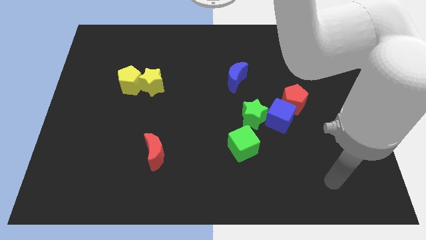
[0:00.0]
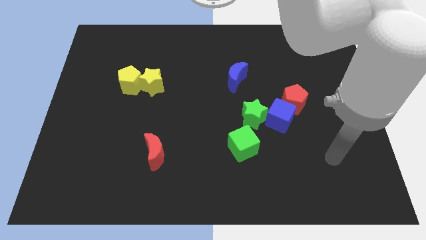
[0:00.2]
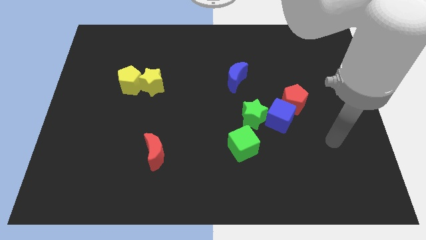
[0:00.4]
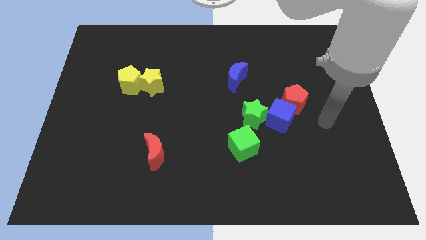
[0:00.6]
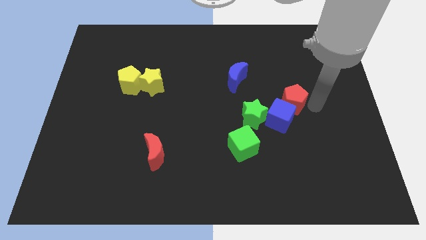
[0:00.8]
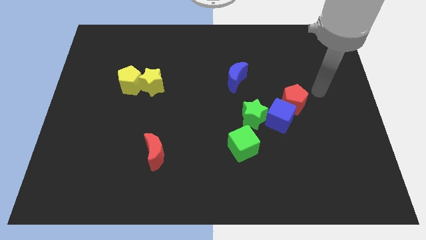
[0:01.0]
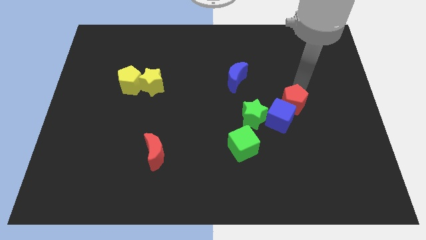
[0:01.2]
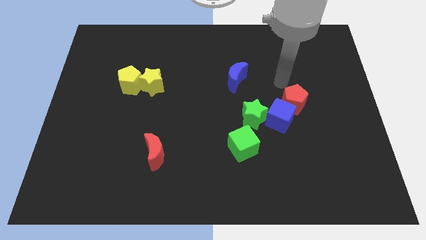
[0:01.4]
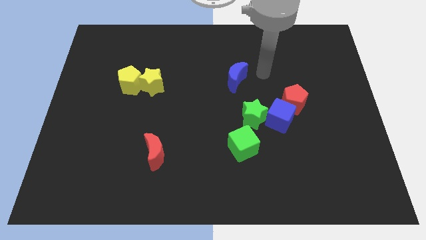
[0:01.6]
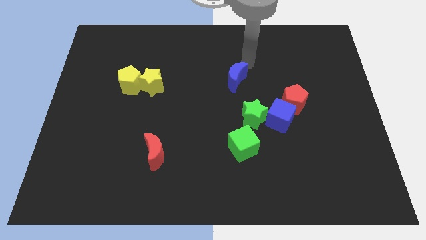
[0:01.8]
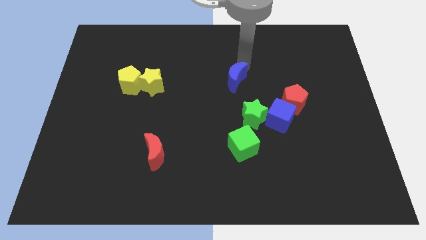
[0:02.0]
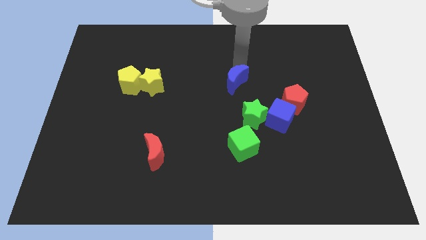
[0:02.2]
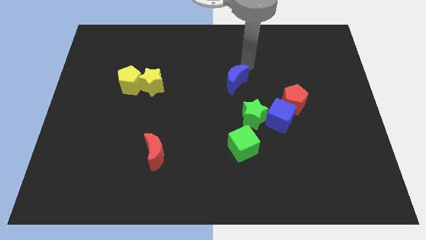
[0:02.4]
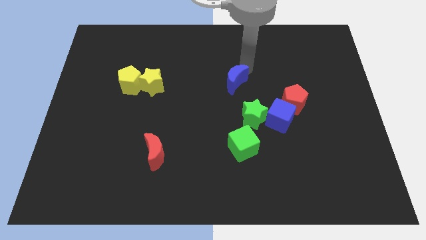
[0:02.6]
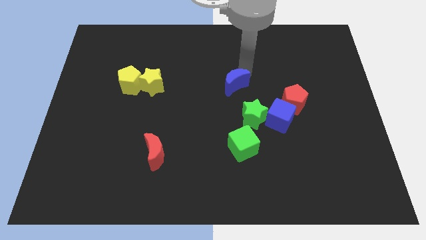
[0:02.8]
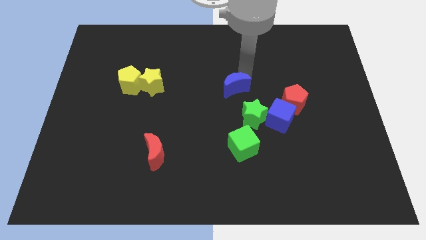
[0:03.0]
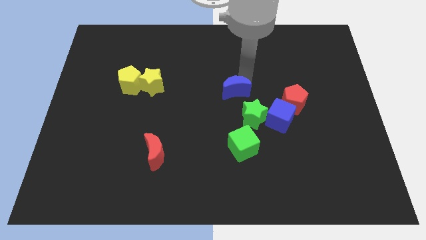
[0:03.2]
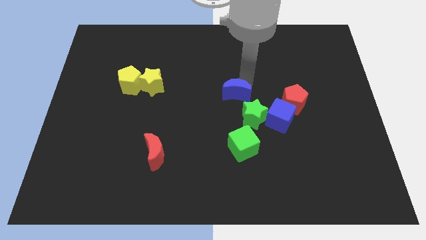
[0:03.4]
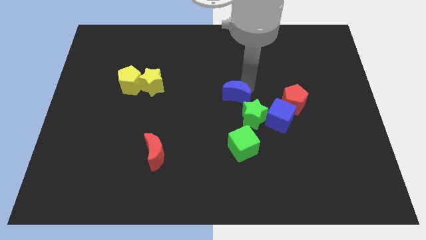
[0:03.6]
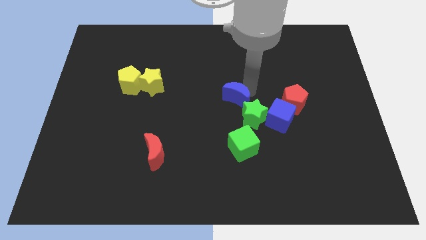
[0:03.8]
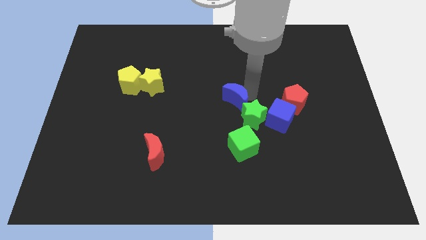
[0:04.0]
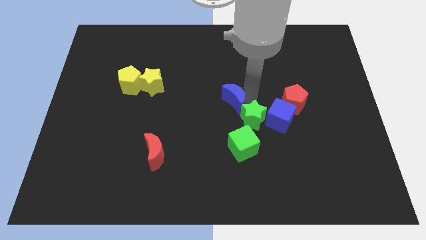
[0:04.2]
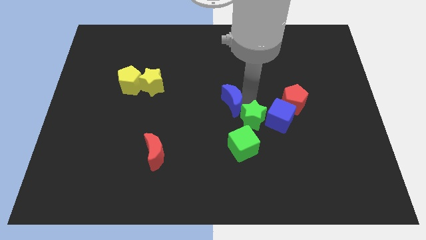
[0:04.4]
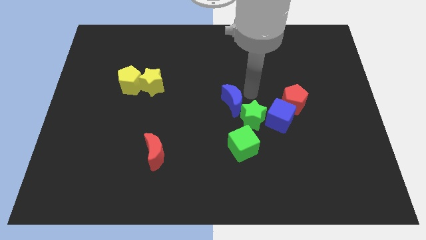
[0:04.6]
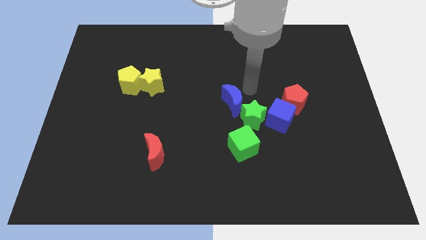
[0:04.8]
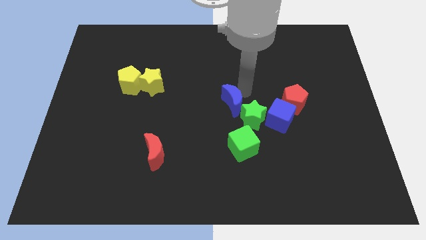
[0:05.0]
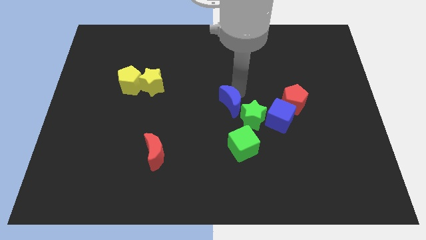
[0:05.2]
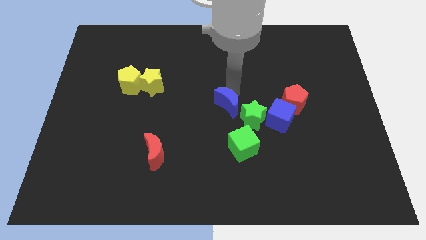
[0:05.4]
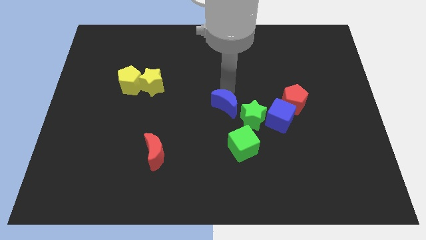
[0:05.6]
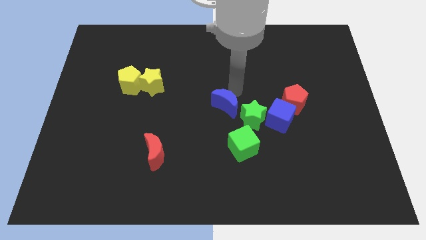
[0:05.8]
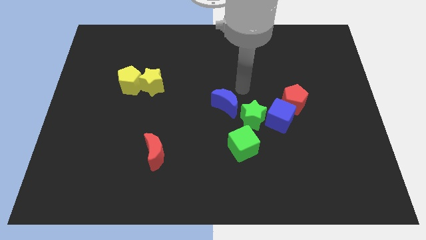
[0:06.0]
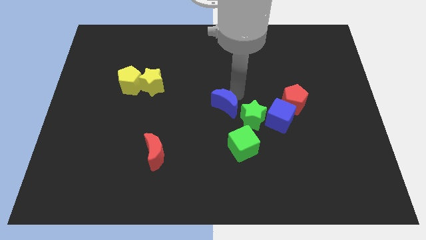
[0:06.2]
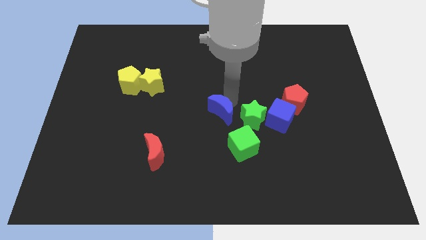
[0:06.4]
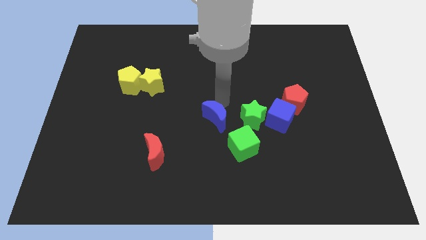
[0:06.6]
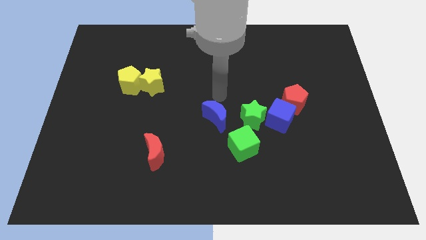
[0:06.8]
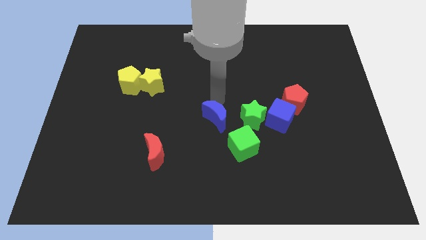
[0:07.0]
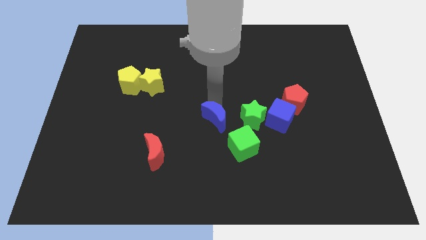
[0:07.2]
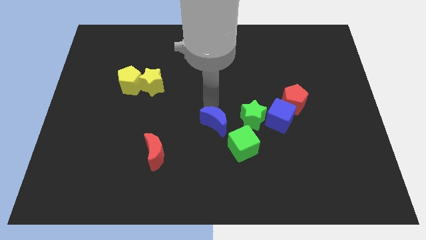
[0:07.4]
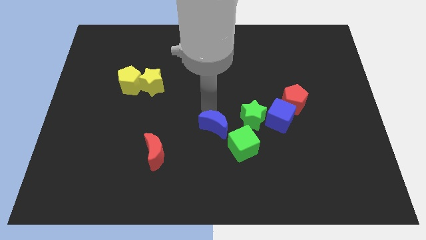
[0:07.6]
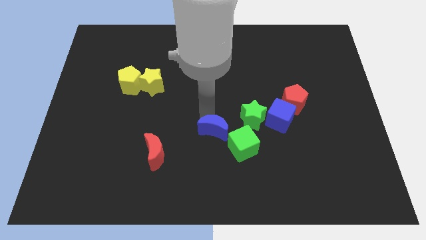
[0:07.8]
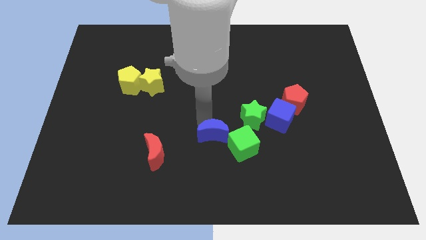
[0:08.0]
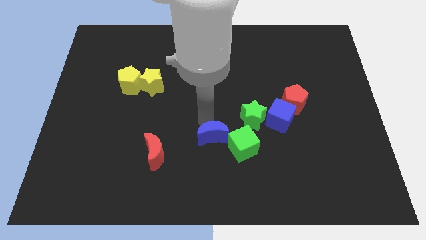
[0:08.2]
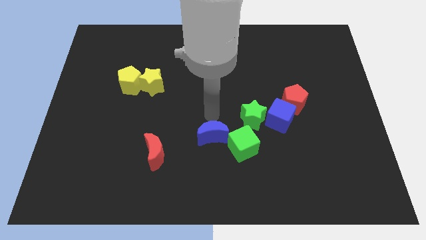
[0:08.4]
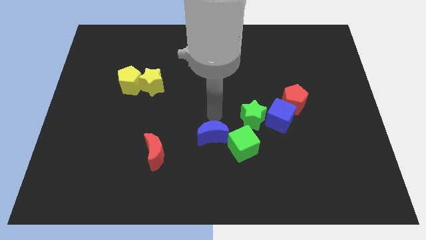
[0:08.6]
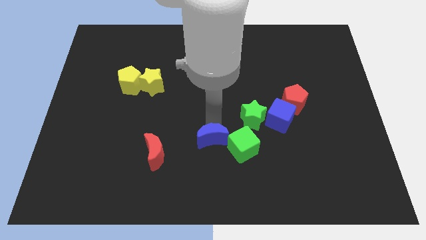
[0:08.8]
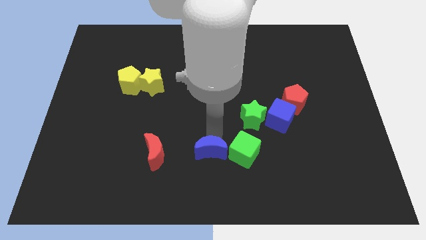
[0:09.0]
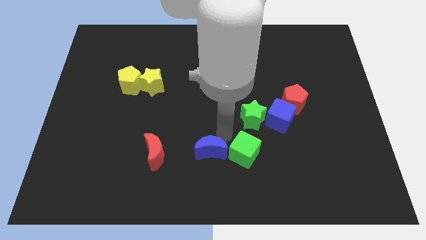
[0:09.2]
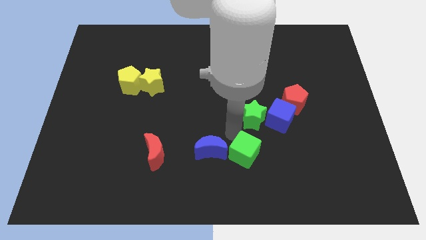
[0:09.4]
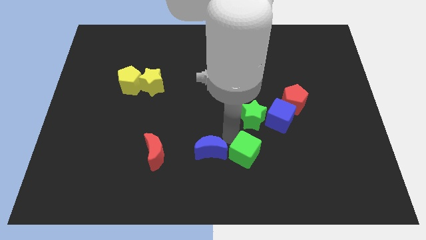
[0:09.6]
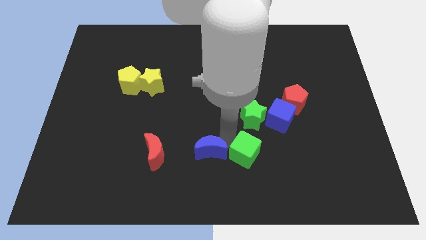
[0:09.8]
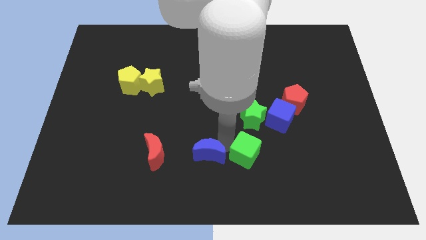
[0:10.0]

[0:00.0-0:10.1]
move the blue moon to the bottom side
